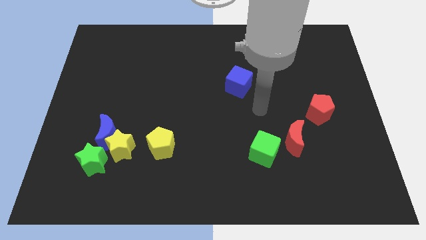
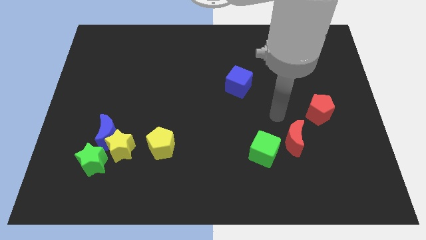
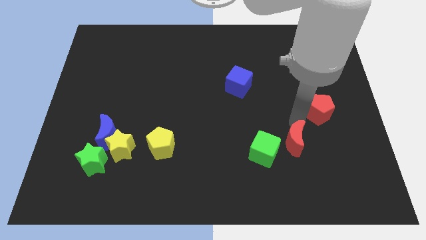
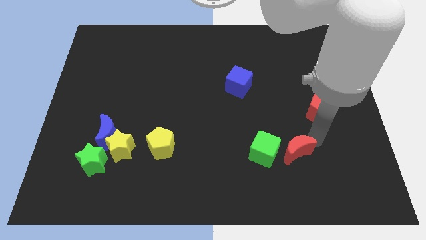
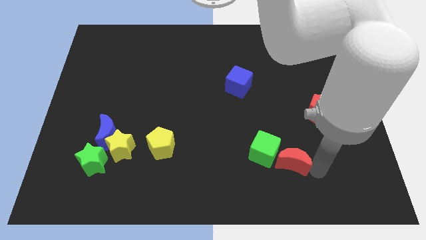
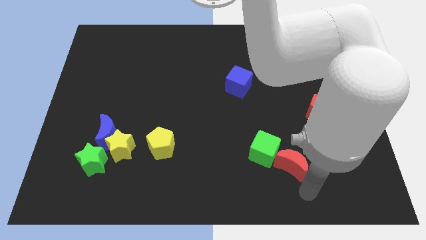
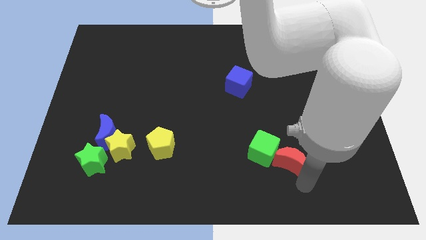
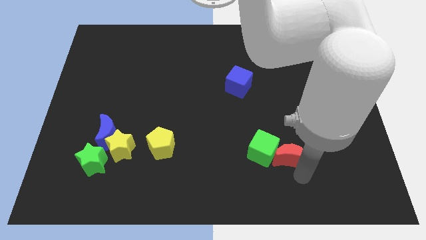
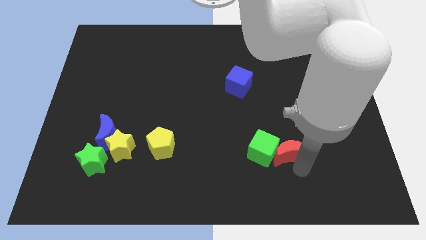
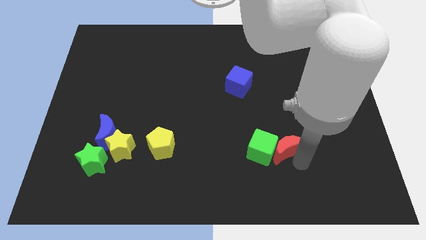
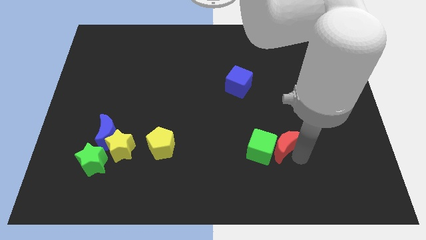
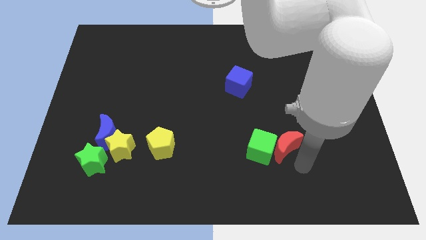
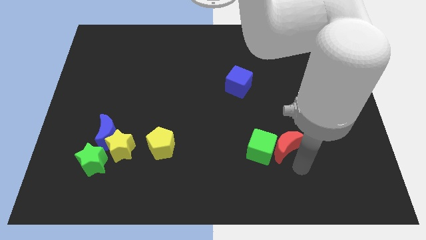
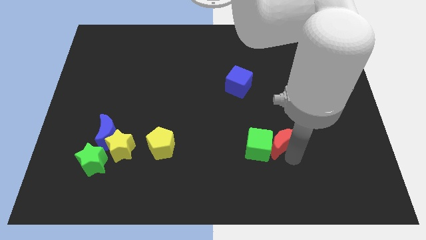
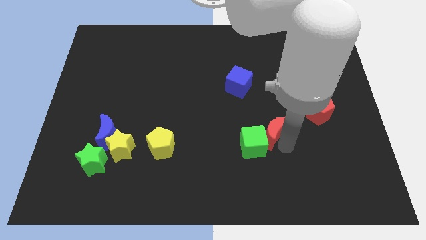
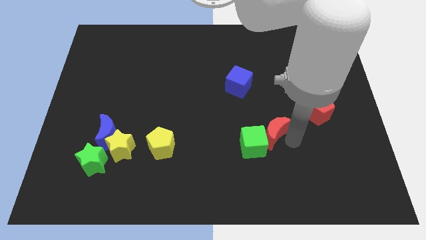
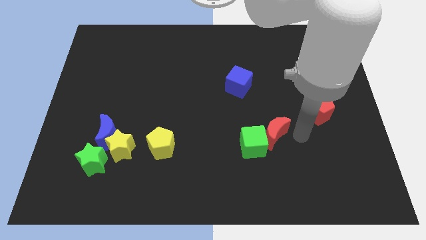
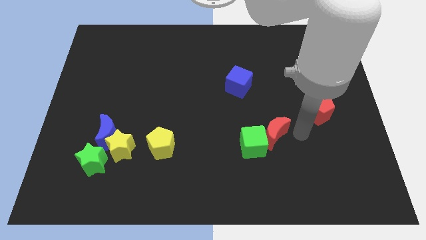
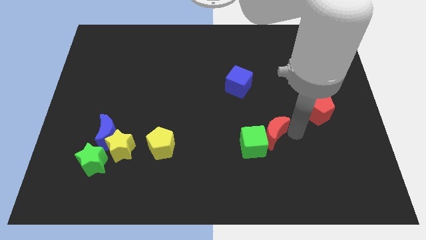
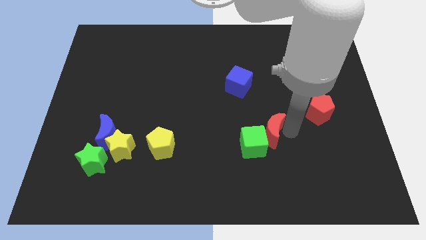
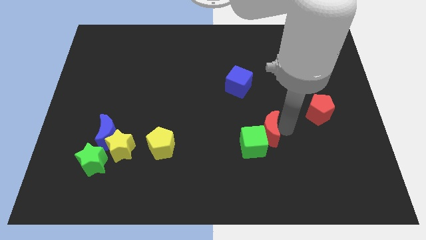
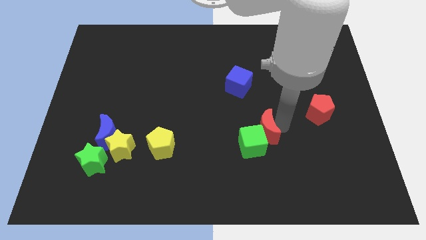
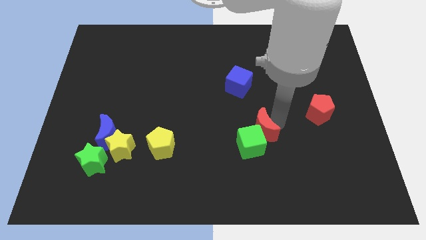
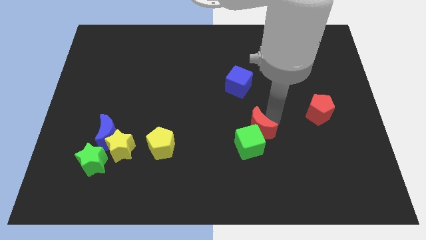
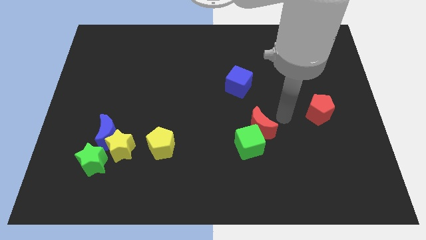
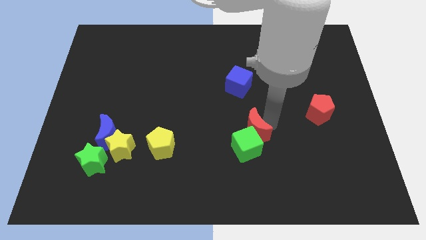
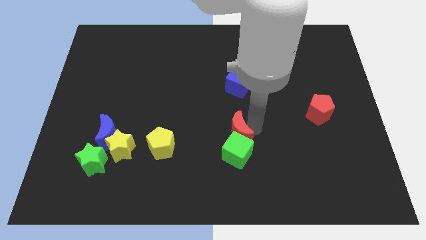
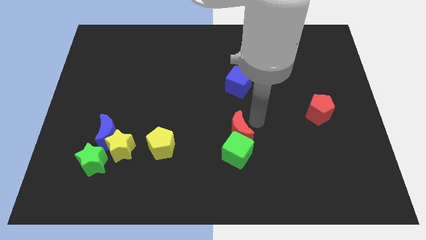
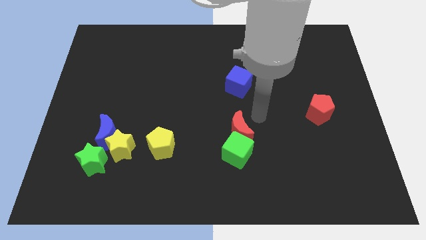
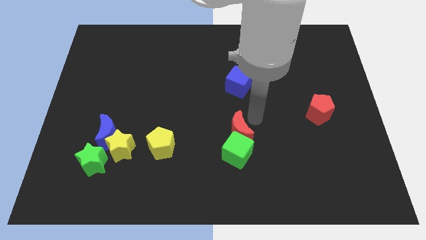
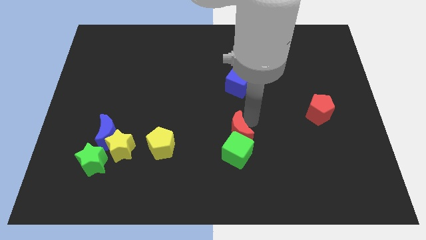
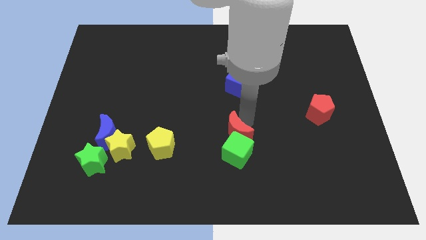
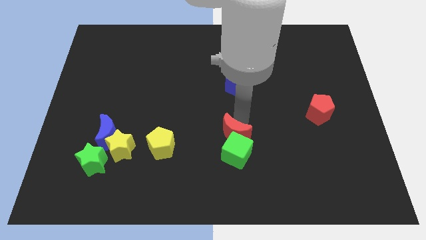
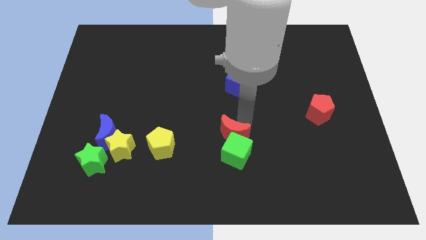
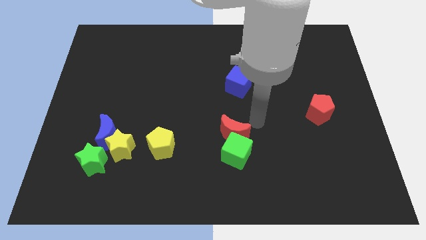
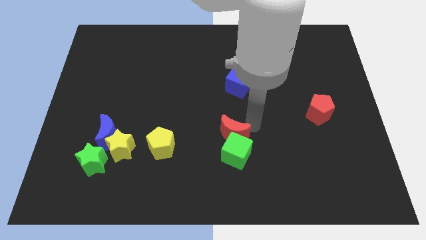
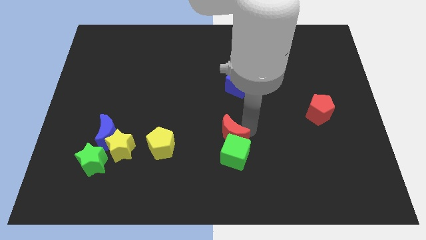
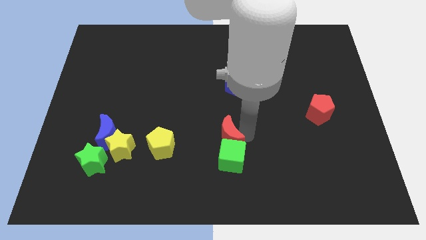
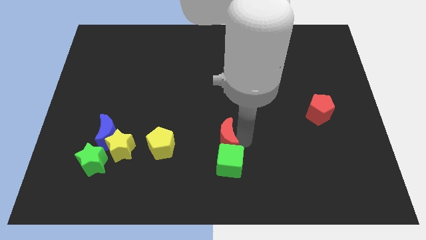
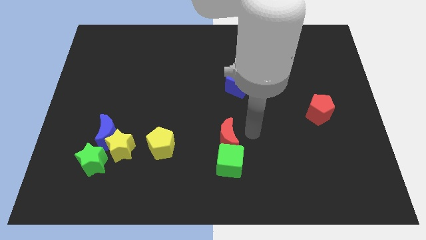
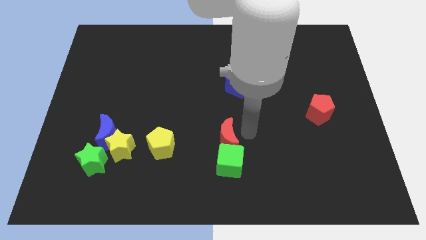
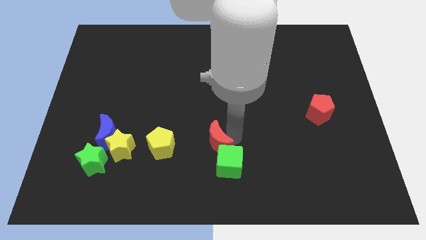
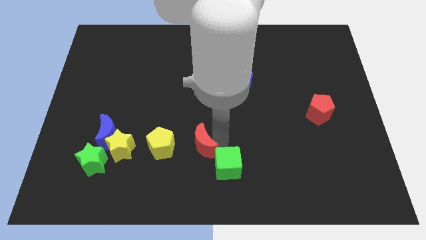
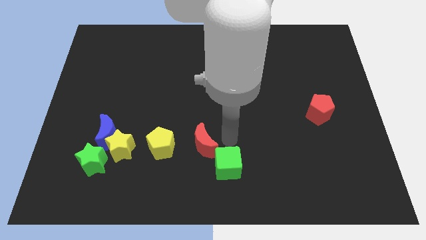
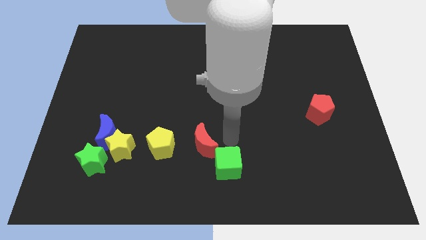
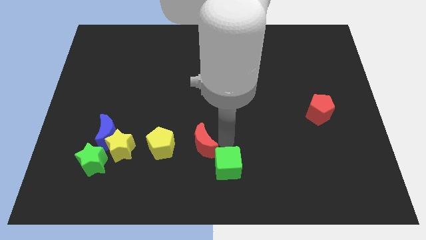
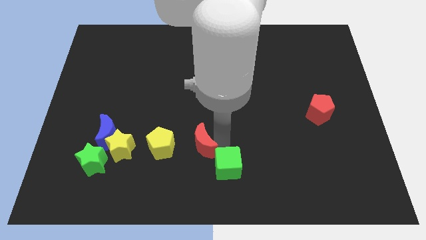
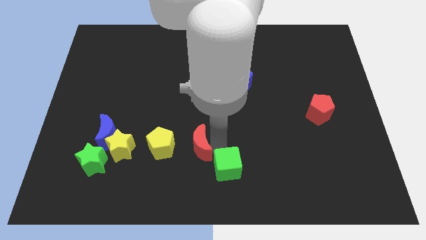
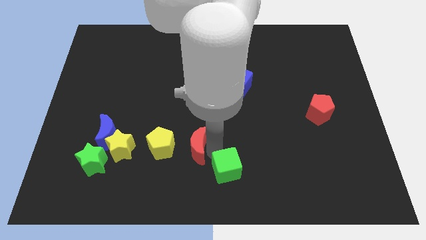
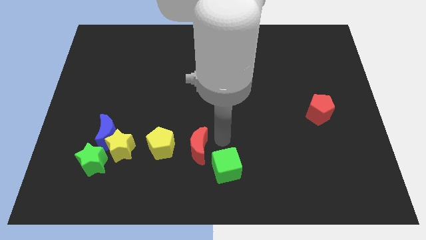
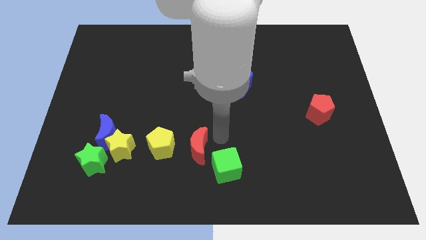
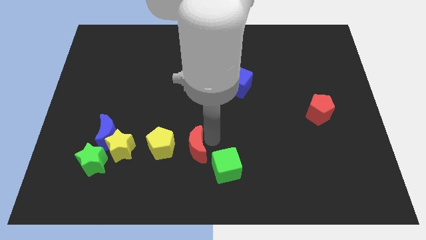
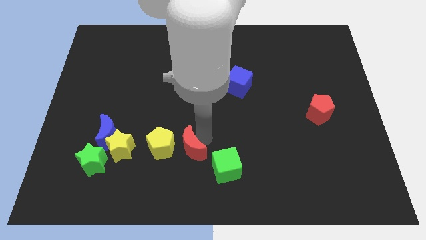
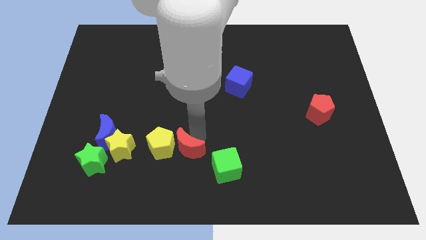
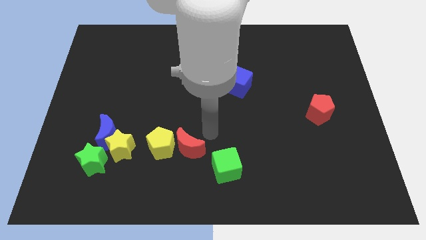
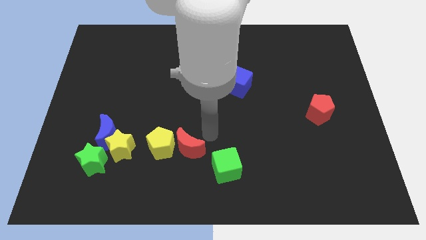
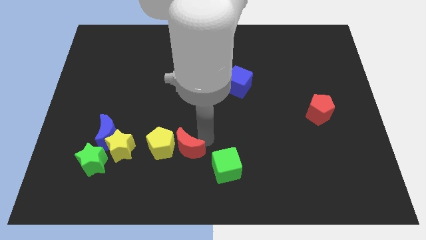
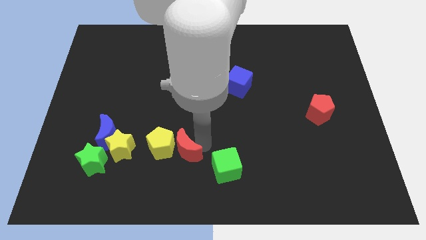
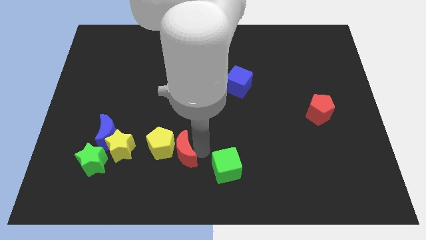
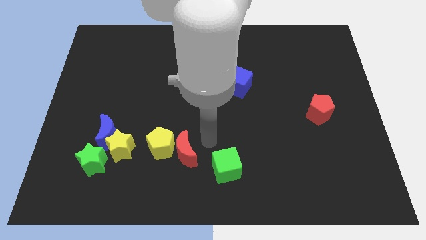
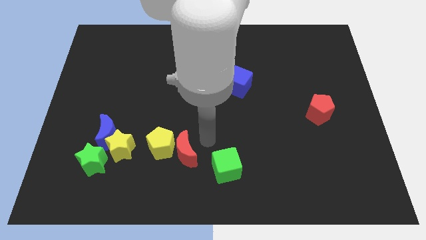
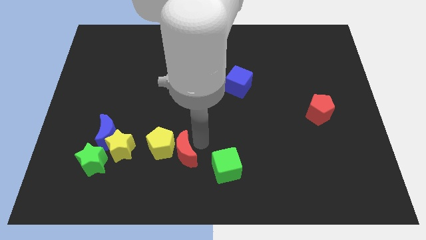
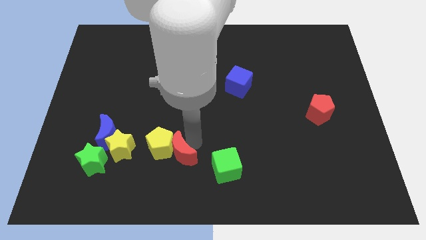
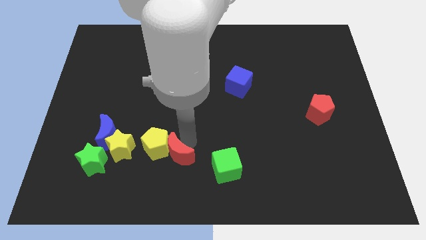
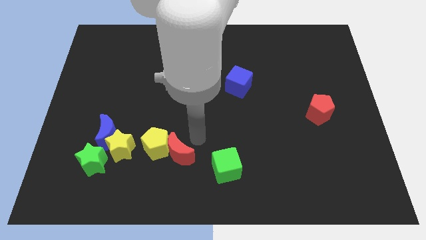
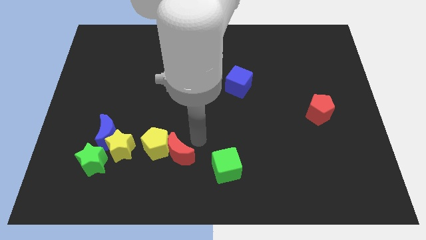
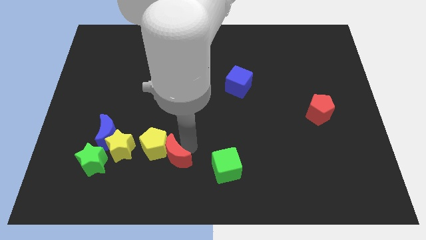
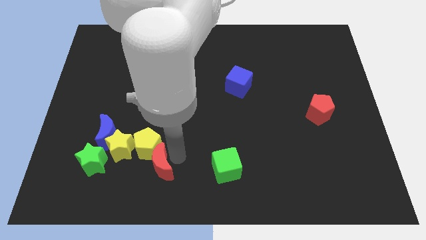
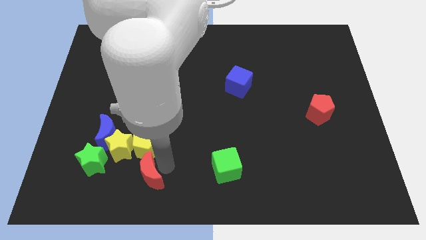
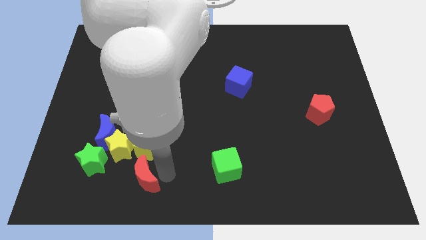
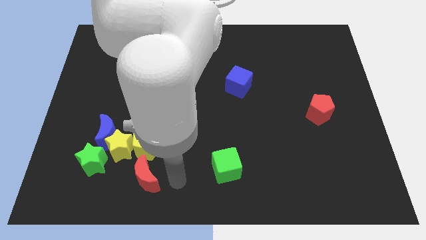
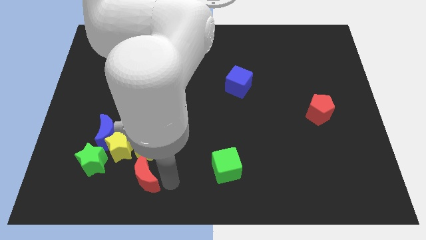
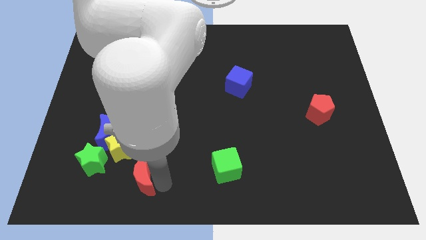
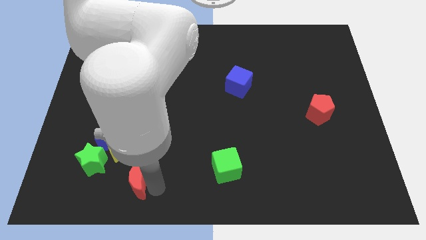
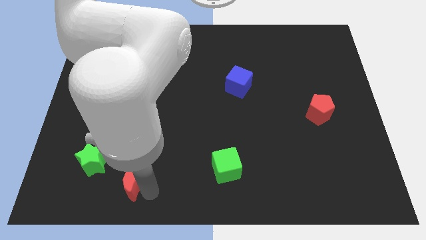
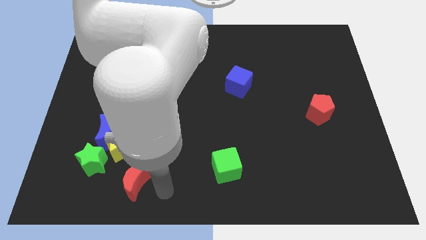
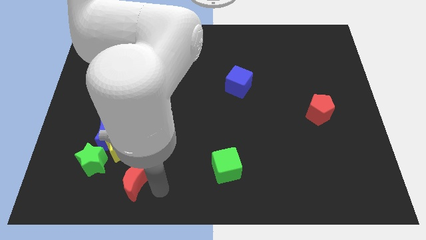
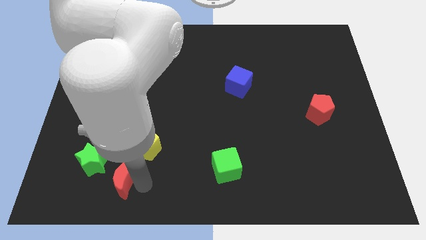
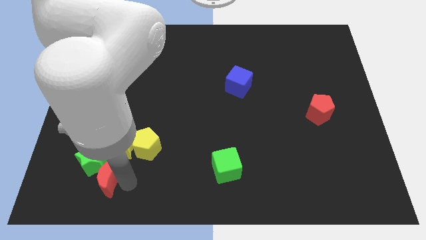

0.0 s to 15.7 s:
push the red moon towards the green star
